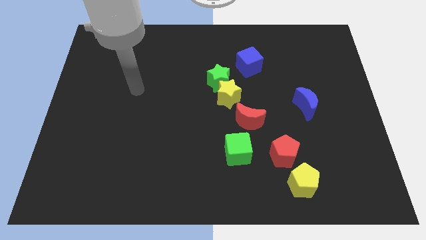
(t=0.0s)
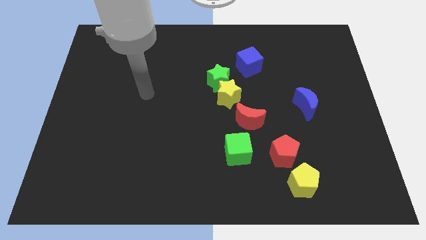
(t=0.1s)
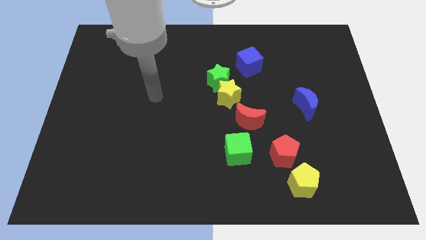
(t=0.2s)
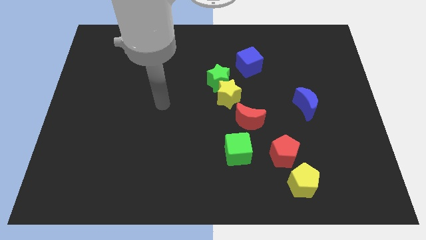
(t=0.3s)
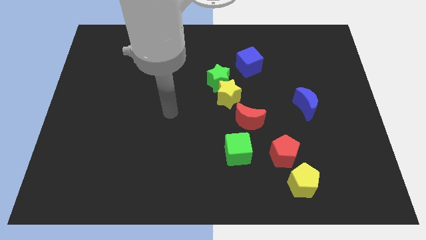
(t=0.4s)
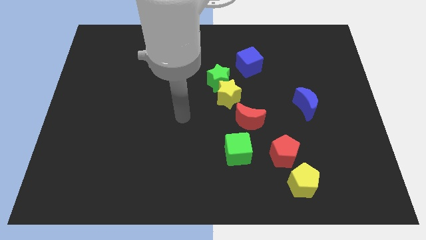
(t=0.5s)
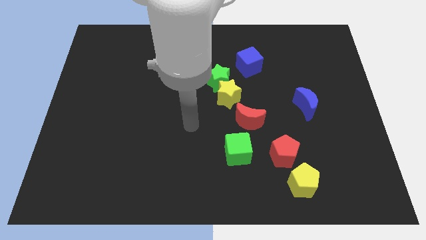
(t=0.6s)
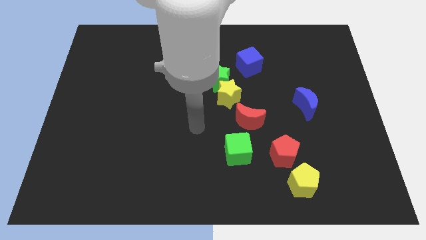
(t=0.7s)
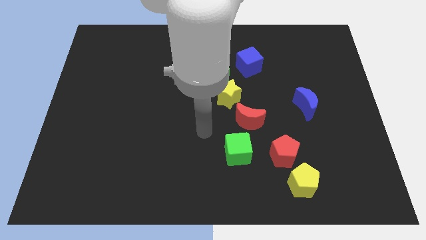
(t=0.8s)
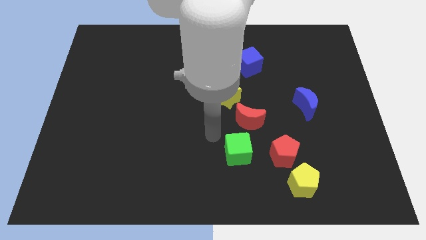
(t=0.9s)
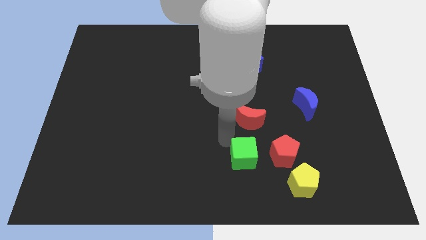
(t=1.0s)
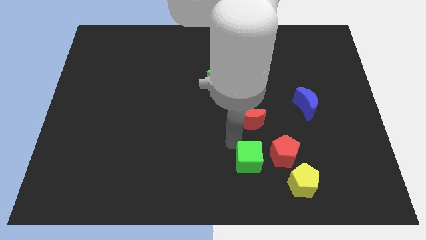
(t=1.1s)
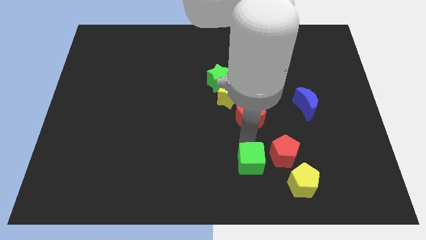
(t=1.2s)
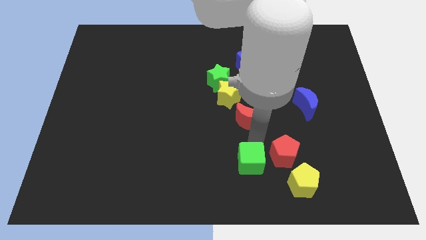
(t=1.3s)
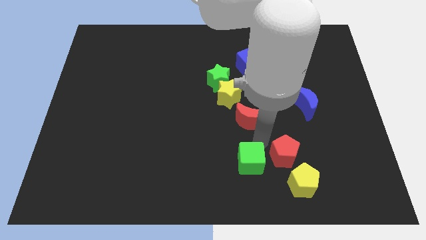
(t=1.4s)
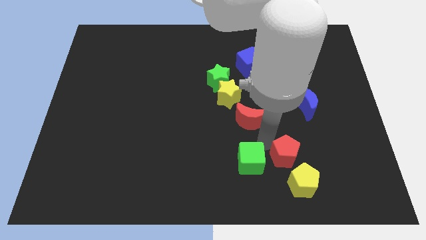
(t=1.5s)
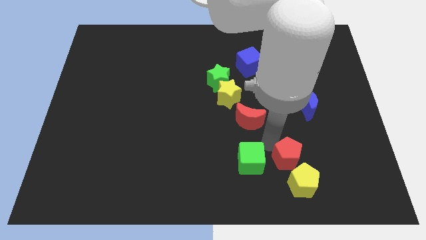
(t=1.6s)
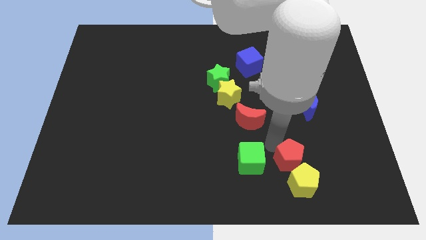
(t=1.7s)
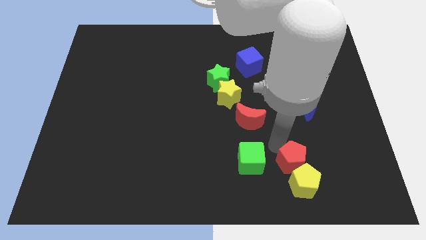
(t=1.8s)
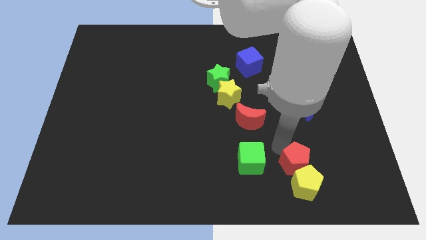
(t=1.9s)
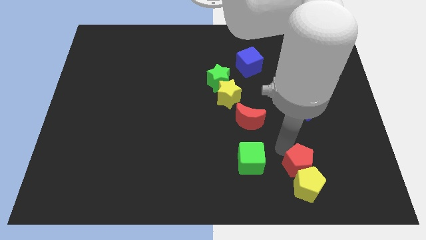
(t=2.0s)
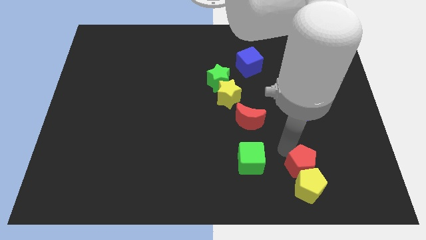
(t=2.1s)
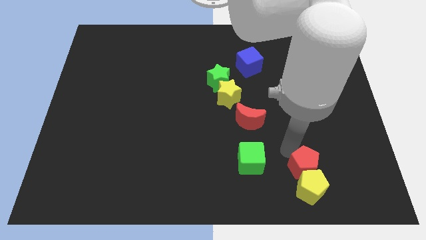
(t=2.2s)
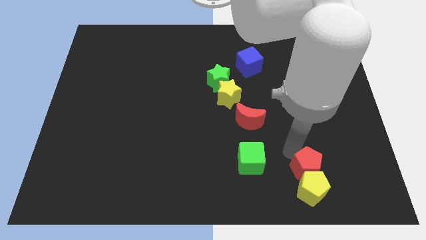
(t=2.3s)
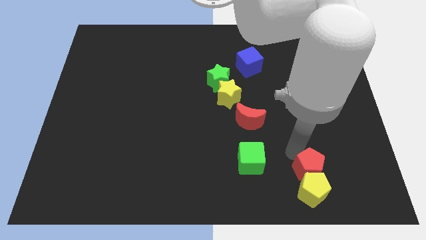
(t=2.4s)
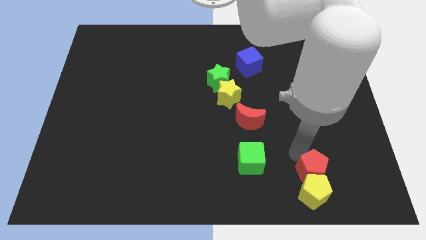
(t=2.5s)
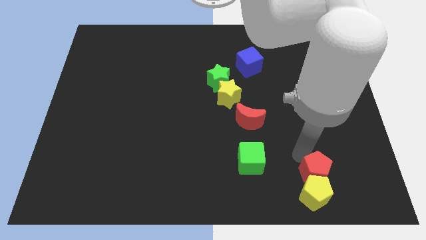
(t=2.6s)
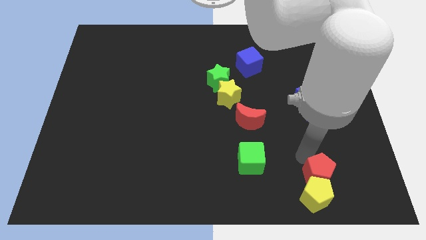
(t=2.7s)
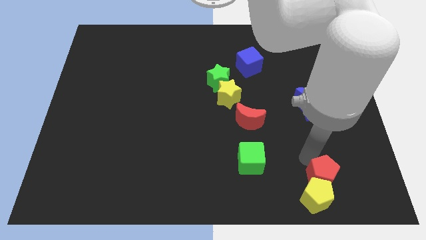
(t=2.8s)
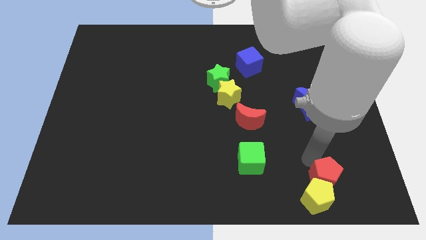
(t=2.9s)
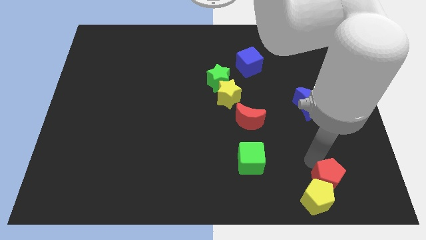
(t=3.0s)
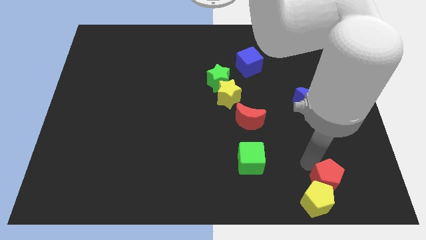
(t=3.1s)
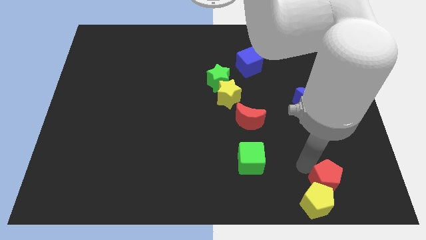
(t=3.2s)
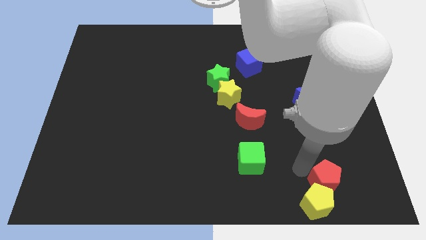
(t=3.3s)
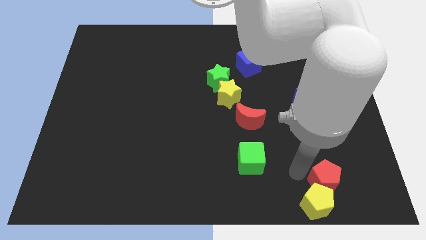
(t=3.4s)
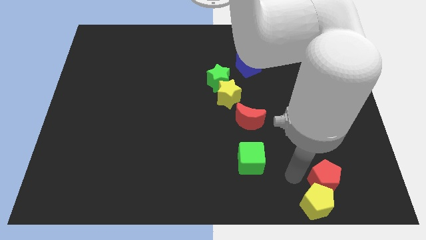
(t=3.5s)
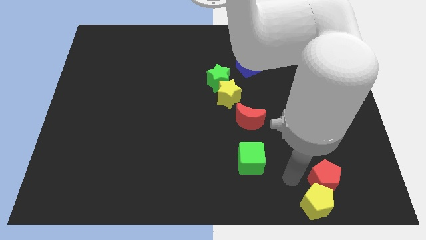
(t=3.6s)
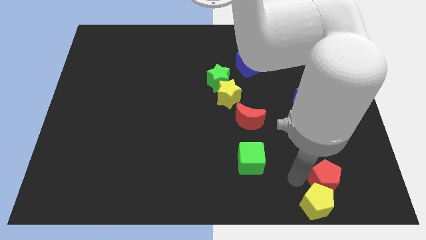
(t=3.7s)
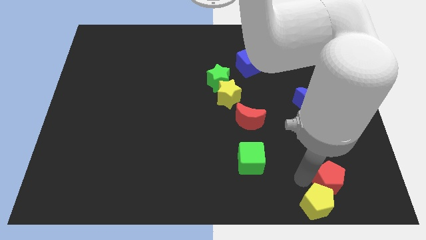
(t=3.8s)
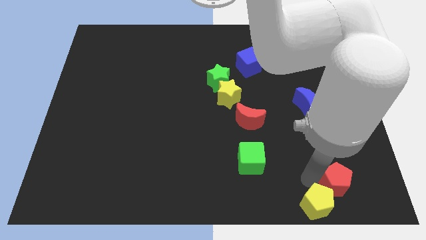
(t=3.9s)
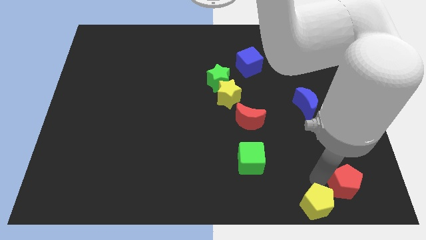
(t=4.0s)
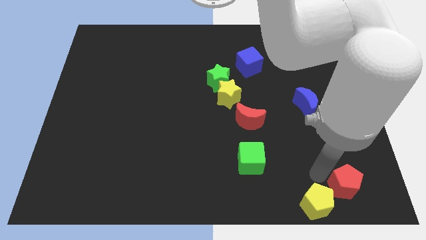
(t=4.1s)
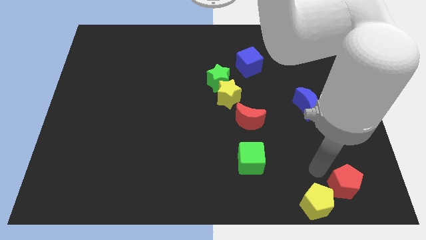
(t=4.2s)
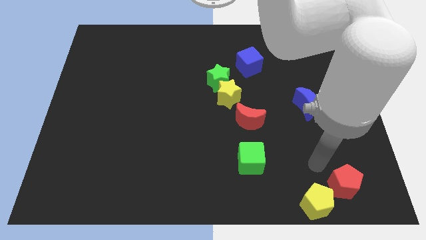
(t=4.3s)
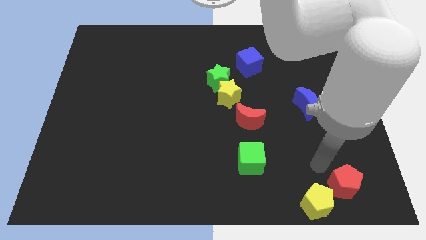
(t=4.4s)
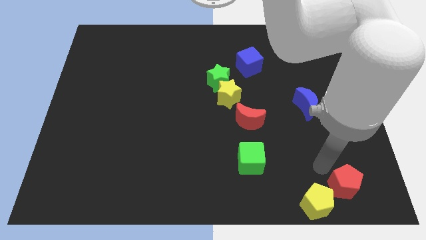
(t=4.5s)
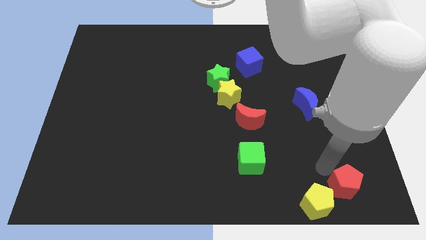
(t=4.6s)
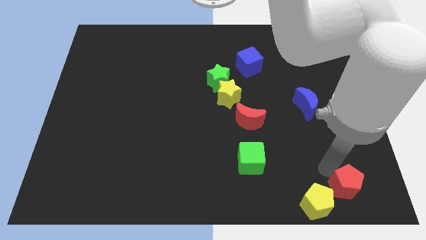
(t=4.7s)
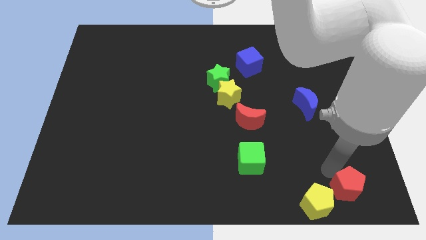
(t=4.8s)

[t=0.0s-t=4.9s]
slide the red pentagon to the bottom right of the board

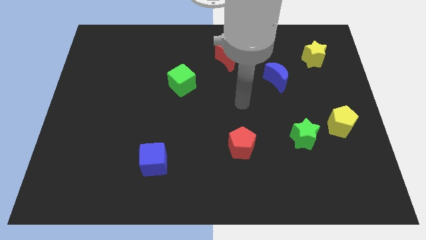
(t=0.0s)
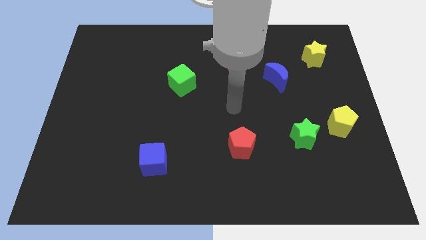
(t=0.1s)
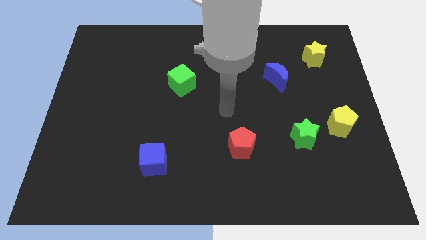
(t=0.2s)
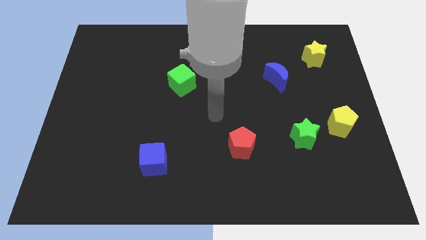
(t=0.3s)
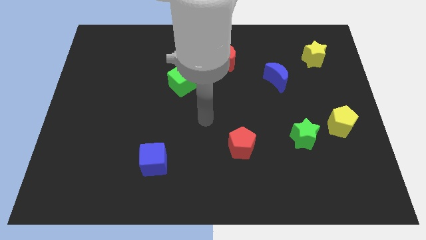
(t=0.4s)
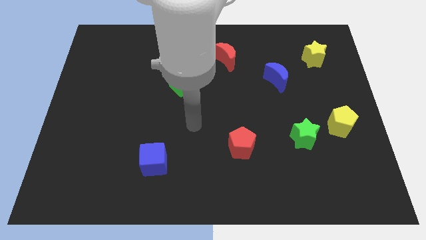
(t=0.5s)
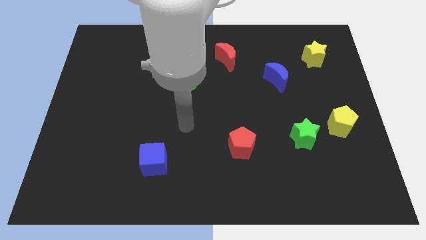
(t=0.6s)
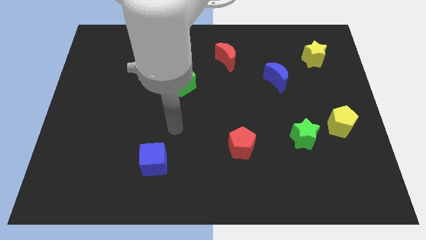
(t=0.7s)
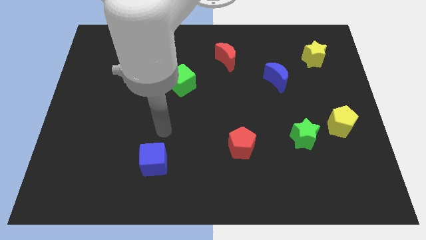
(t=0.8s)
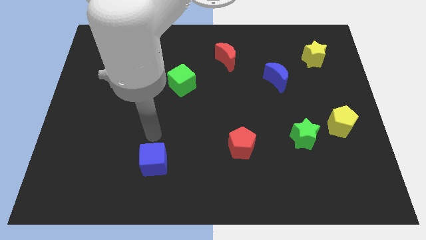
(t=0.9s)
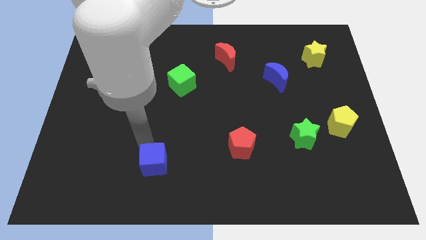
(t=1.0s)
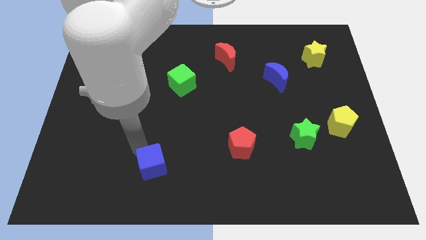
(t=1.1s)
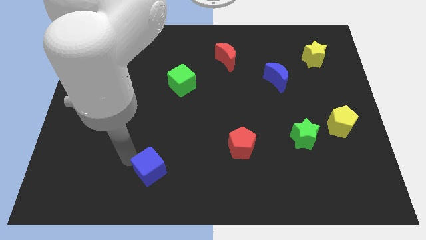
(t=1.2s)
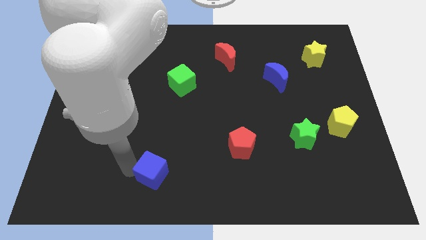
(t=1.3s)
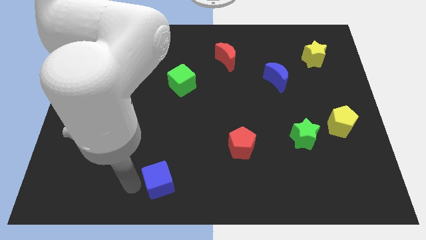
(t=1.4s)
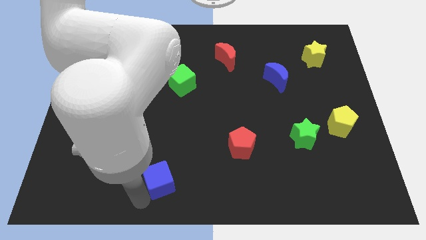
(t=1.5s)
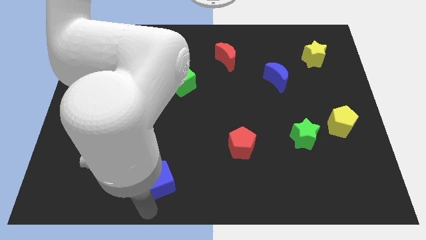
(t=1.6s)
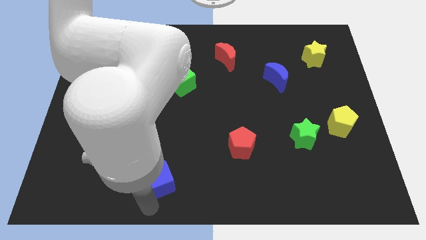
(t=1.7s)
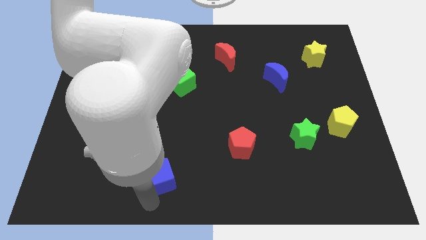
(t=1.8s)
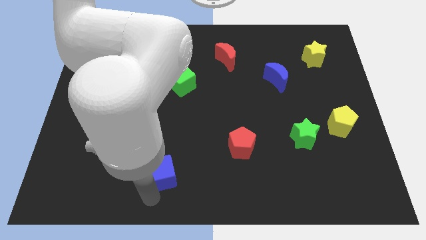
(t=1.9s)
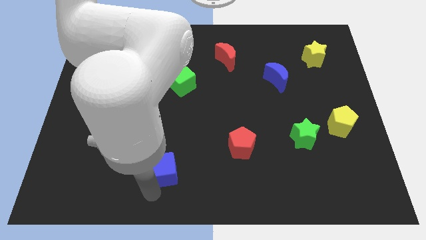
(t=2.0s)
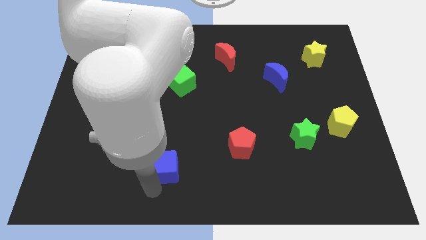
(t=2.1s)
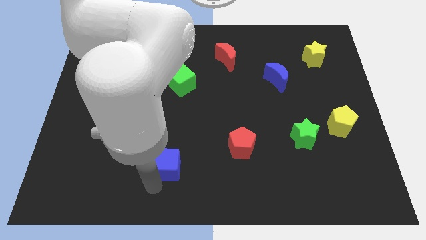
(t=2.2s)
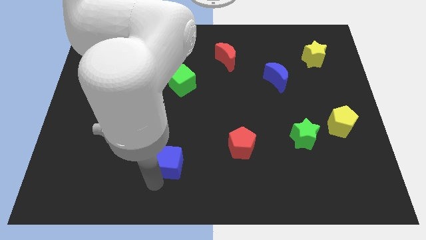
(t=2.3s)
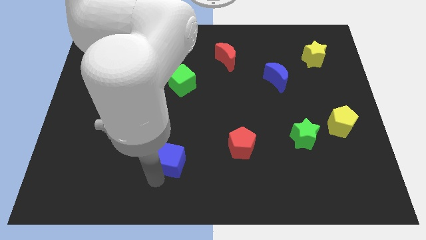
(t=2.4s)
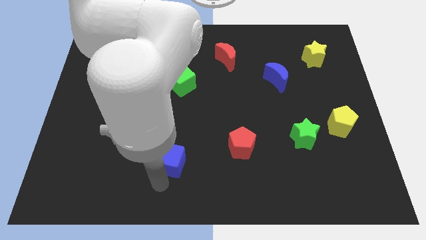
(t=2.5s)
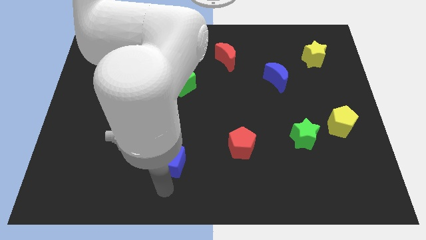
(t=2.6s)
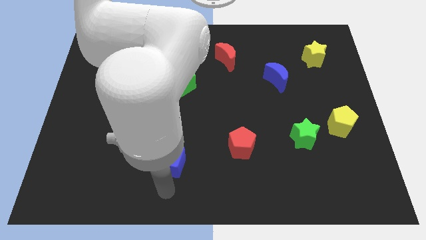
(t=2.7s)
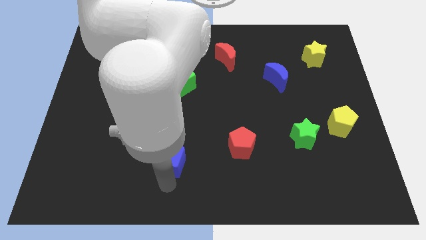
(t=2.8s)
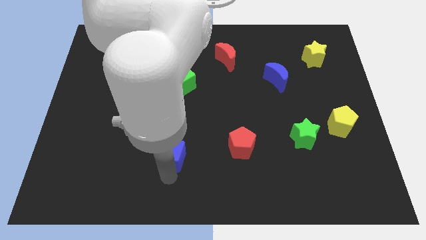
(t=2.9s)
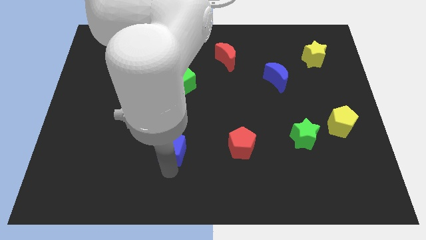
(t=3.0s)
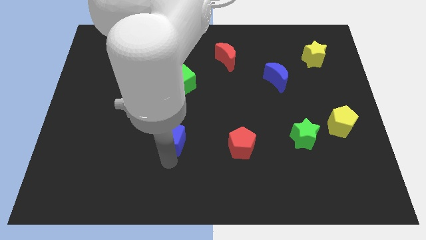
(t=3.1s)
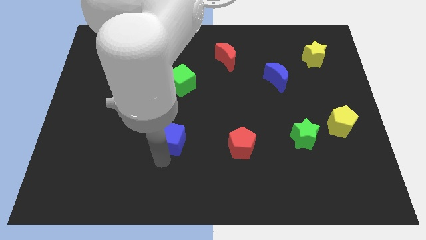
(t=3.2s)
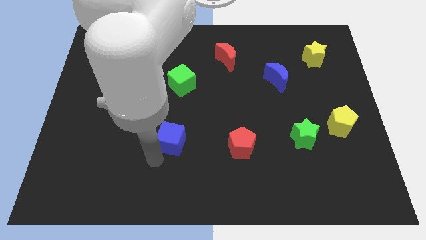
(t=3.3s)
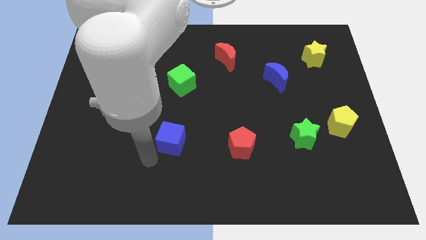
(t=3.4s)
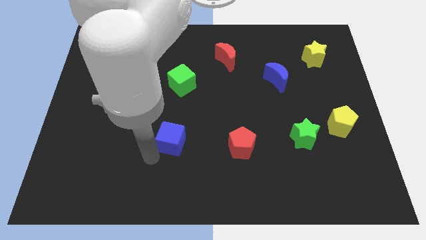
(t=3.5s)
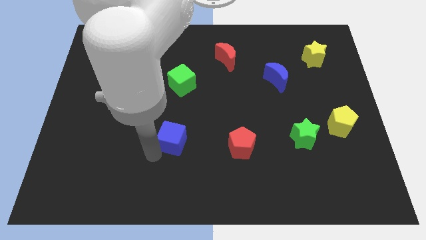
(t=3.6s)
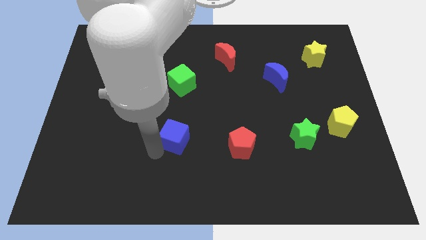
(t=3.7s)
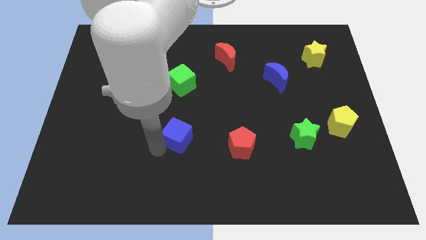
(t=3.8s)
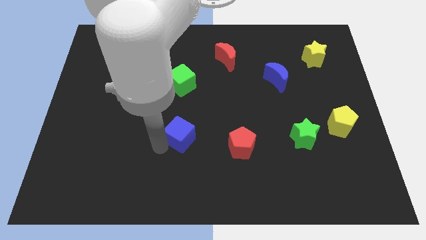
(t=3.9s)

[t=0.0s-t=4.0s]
push the blue cube to the center of the board
